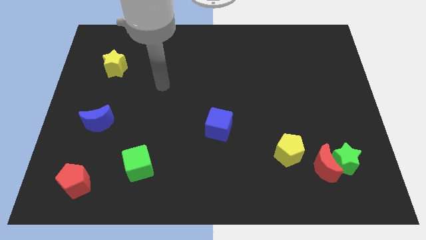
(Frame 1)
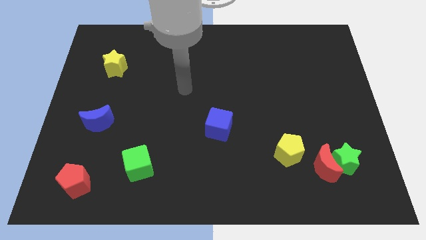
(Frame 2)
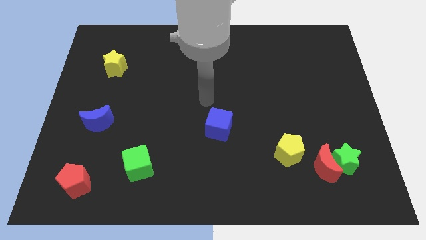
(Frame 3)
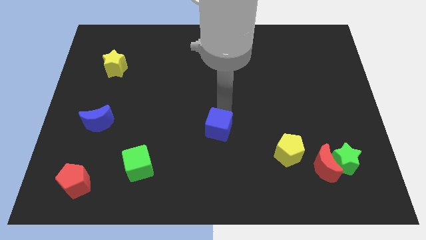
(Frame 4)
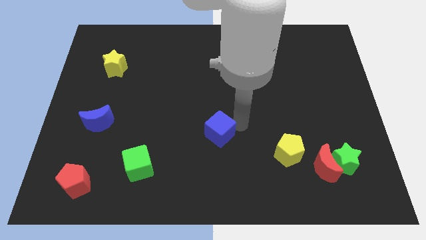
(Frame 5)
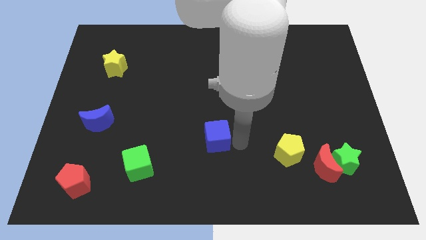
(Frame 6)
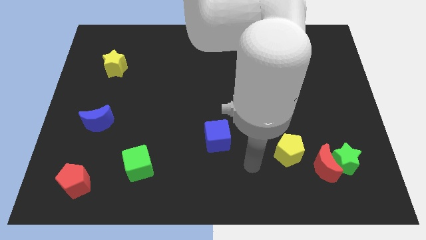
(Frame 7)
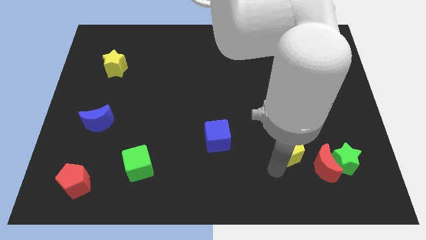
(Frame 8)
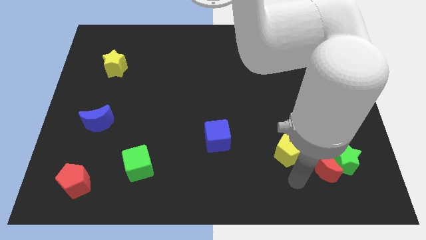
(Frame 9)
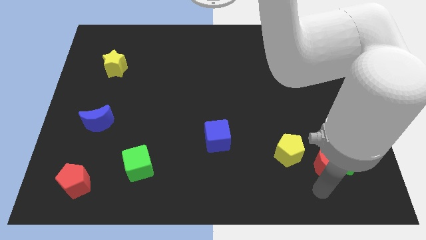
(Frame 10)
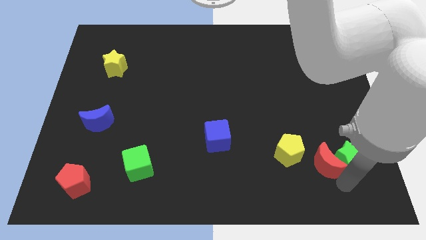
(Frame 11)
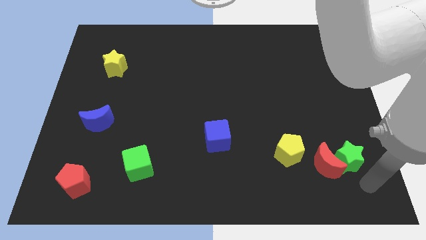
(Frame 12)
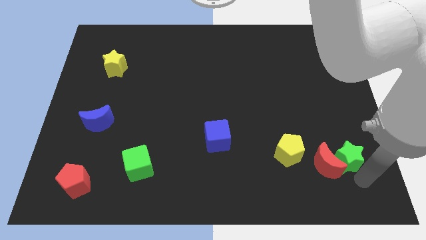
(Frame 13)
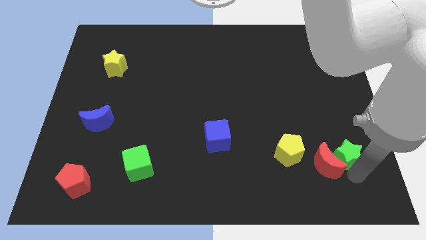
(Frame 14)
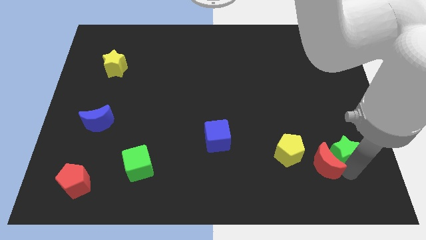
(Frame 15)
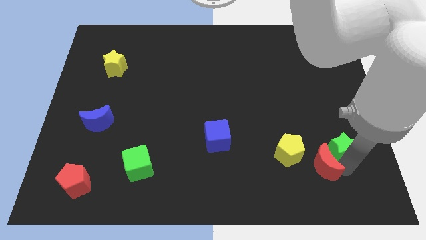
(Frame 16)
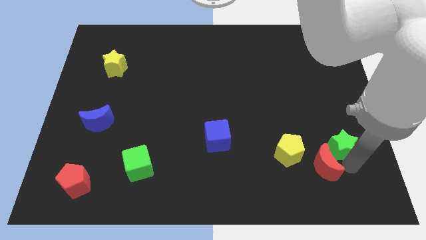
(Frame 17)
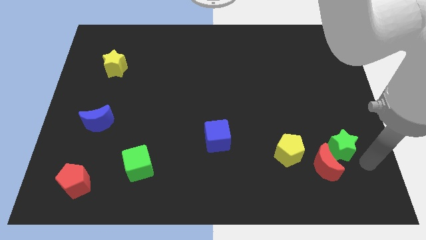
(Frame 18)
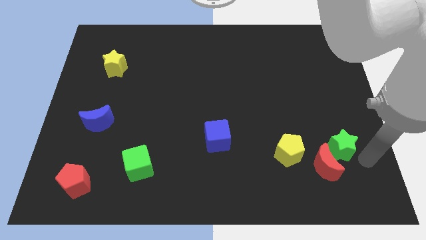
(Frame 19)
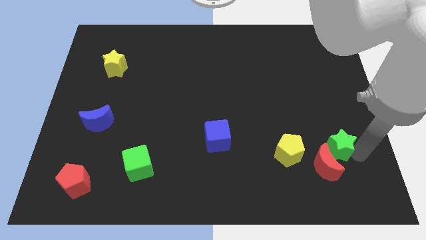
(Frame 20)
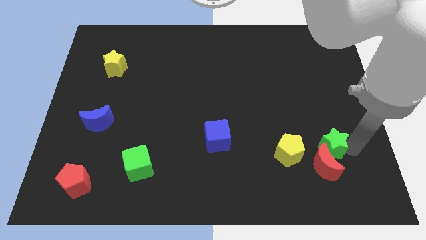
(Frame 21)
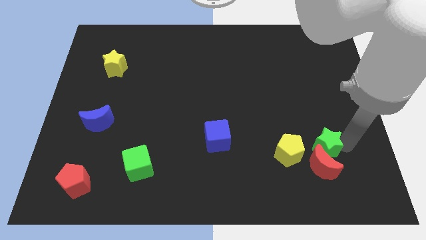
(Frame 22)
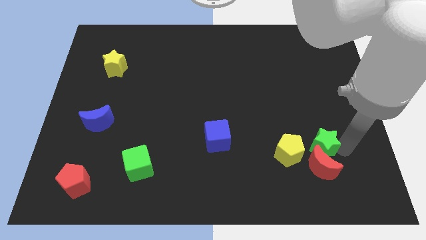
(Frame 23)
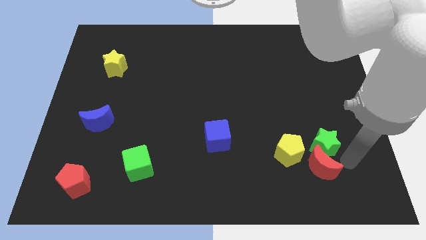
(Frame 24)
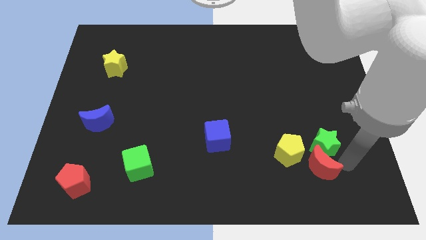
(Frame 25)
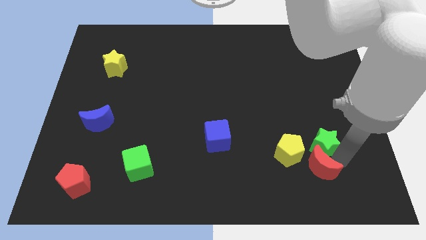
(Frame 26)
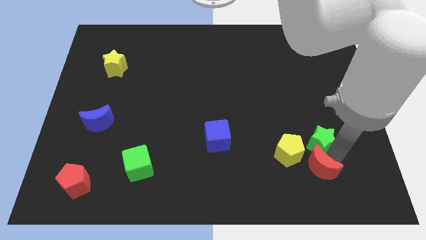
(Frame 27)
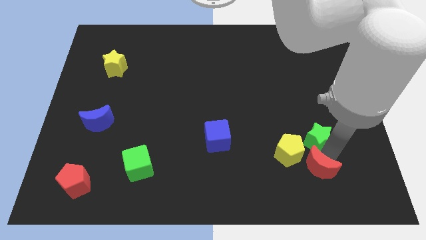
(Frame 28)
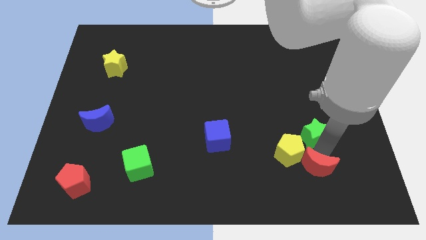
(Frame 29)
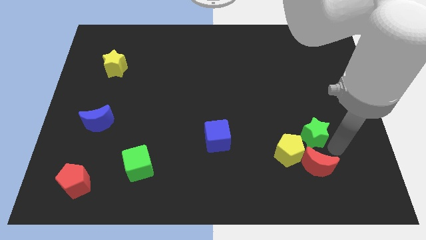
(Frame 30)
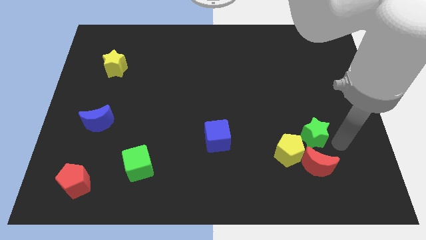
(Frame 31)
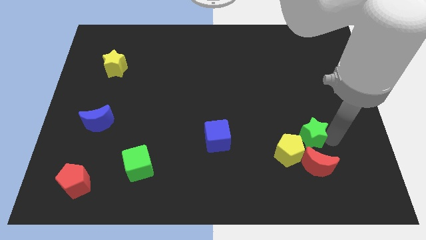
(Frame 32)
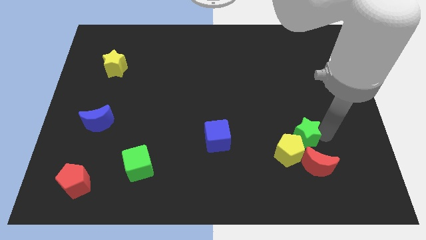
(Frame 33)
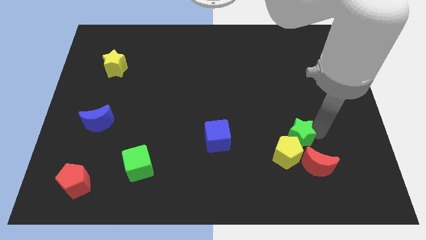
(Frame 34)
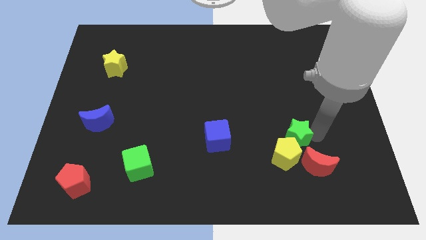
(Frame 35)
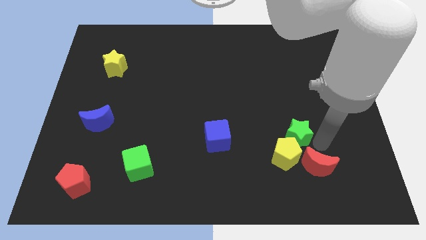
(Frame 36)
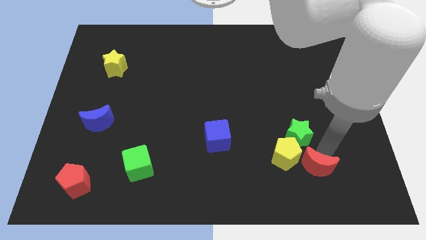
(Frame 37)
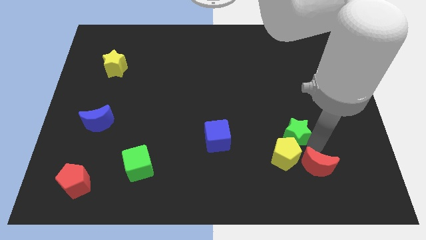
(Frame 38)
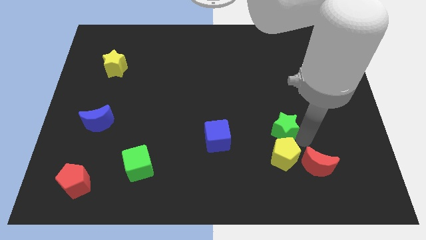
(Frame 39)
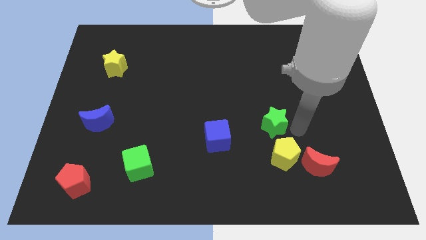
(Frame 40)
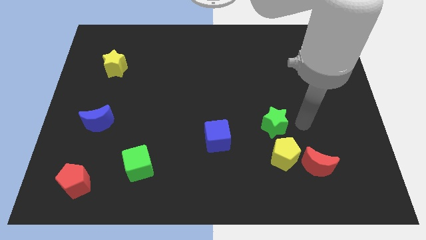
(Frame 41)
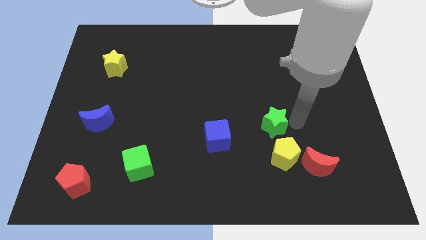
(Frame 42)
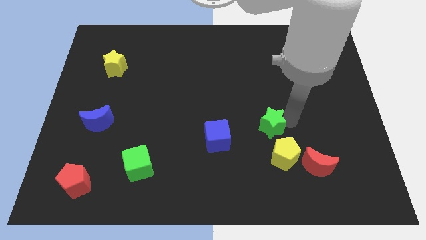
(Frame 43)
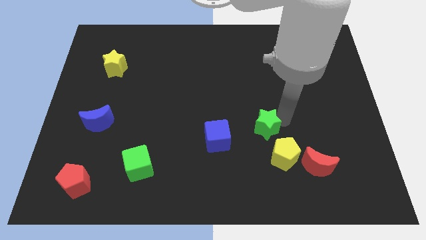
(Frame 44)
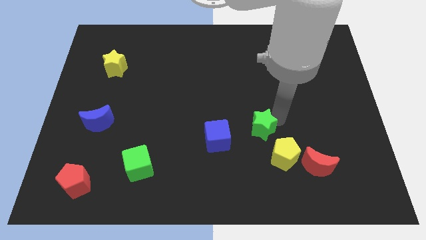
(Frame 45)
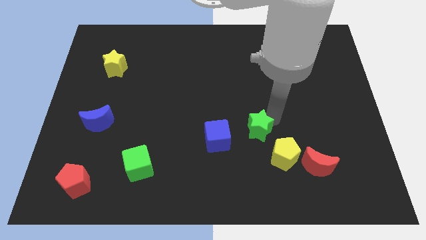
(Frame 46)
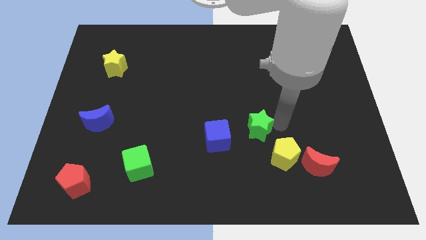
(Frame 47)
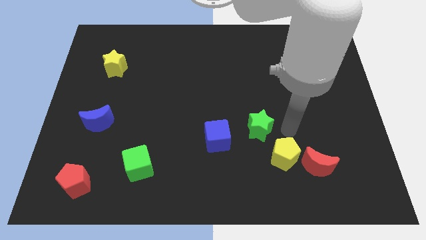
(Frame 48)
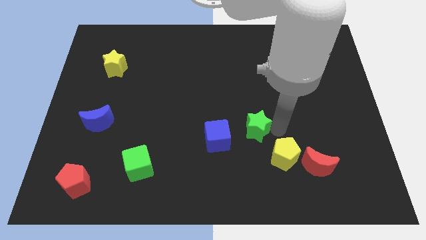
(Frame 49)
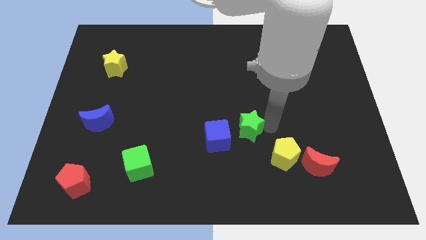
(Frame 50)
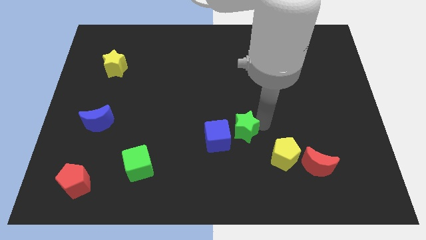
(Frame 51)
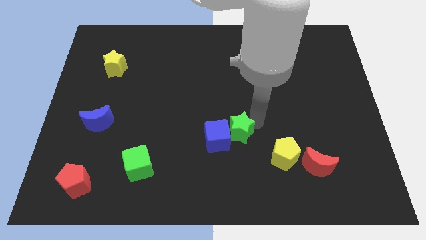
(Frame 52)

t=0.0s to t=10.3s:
put the green star close to the blue cube

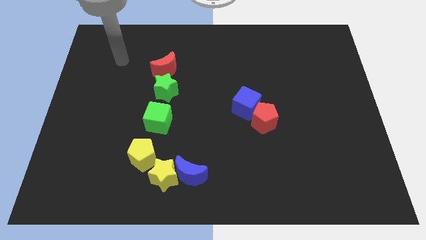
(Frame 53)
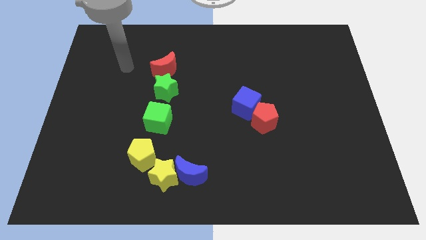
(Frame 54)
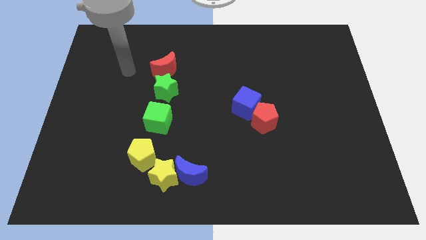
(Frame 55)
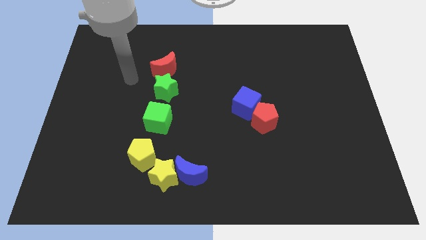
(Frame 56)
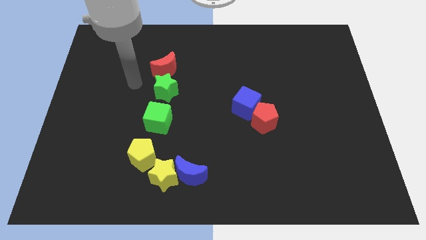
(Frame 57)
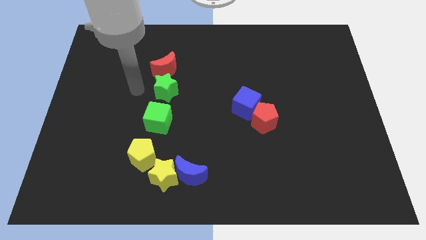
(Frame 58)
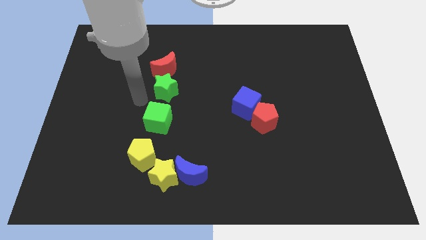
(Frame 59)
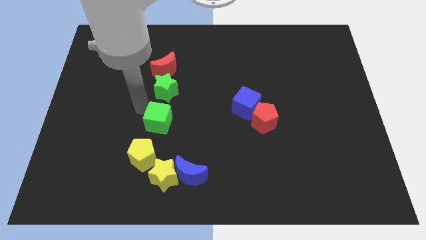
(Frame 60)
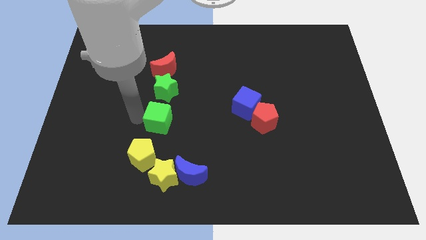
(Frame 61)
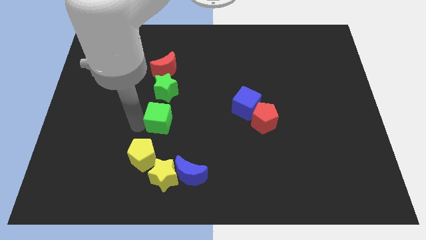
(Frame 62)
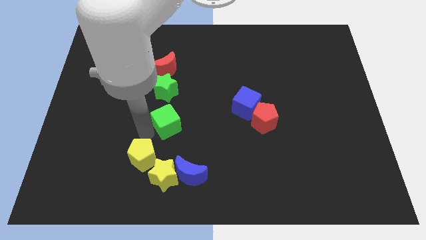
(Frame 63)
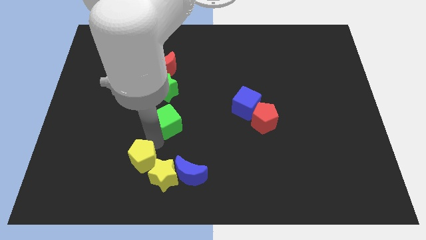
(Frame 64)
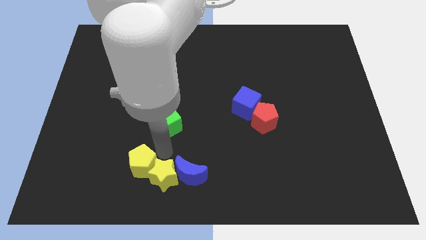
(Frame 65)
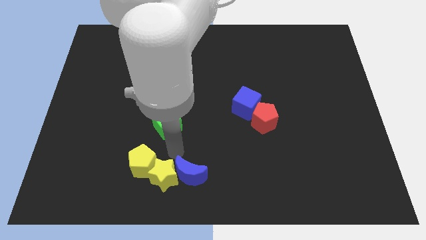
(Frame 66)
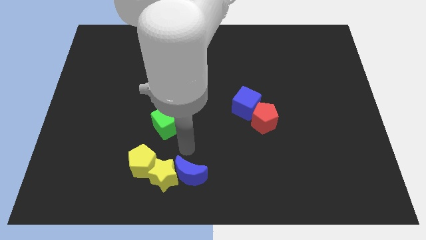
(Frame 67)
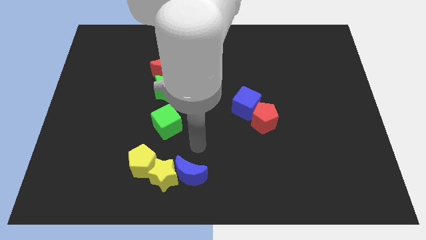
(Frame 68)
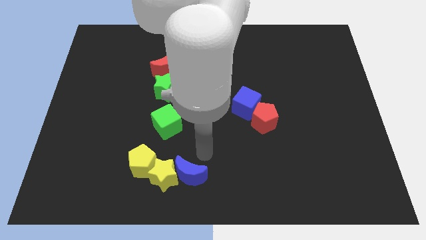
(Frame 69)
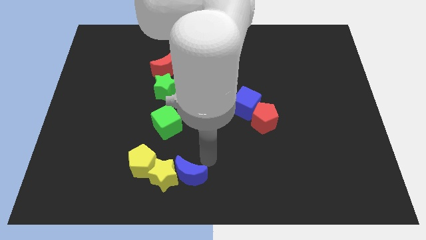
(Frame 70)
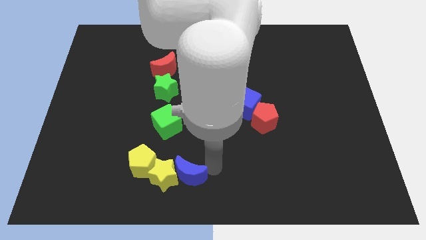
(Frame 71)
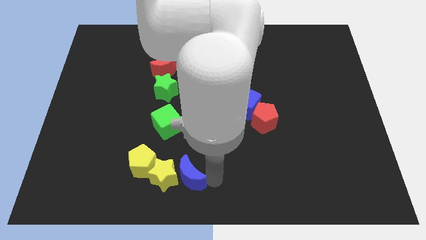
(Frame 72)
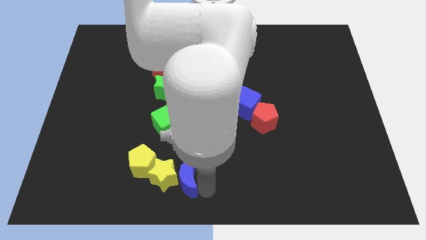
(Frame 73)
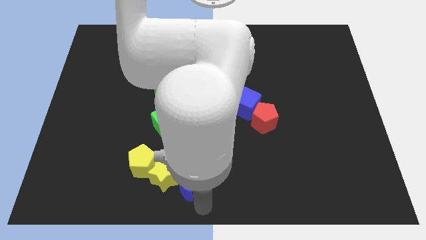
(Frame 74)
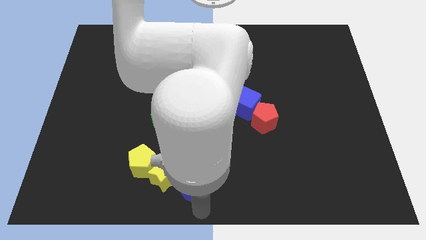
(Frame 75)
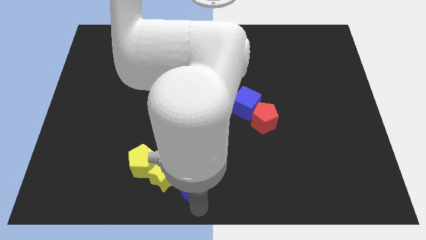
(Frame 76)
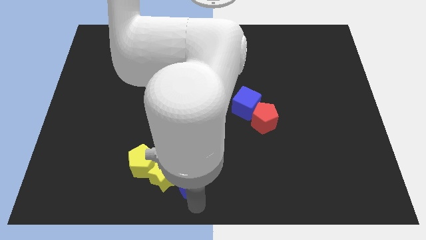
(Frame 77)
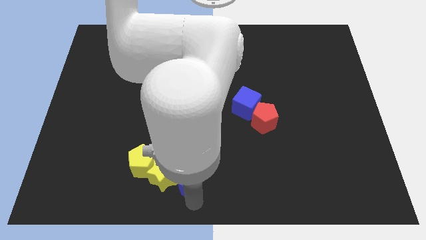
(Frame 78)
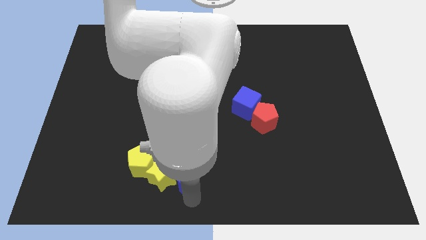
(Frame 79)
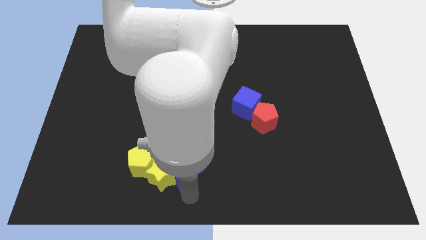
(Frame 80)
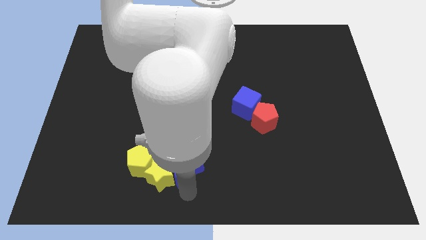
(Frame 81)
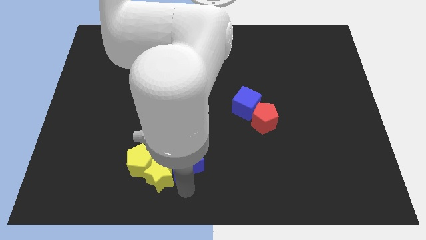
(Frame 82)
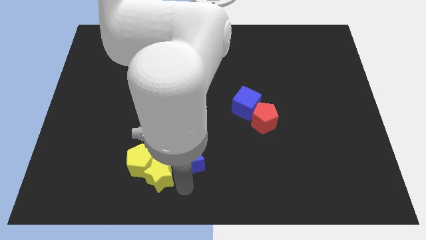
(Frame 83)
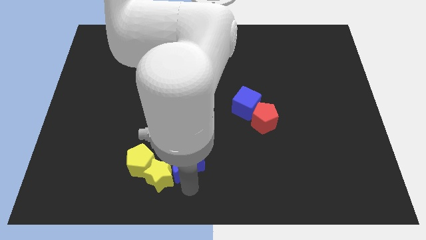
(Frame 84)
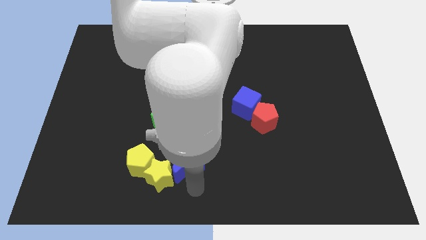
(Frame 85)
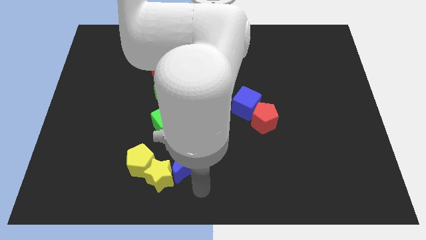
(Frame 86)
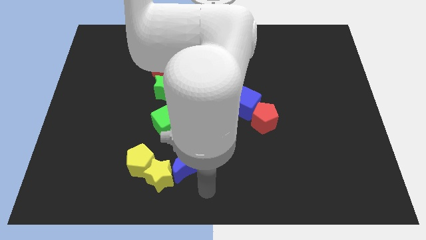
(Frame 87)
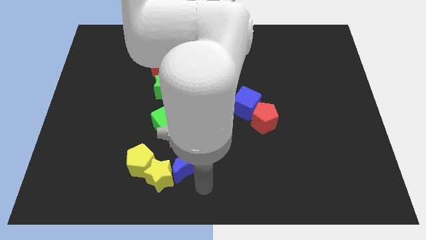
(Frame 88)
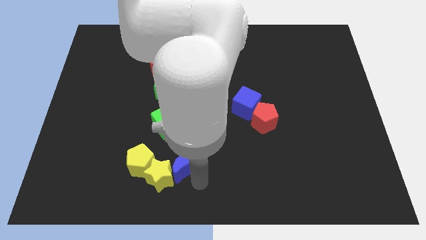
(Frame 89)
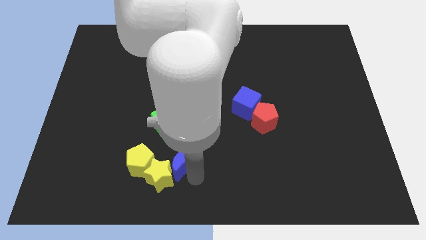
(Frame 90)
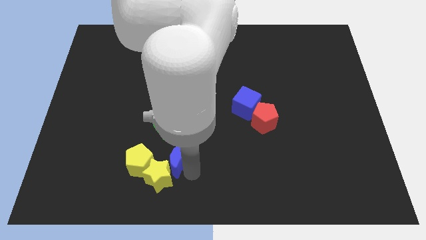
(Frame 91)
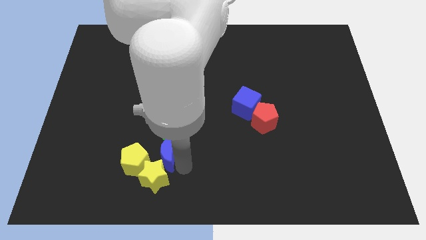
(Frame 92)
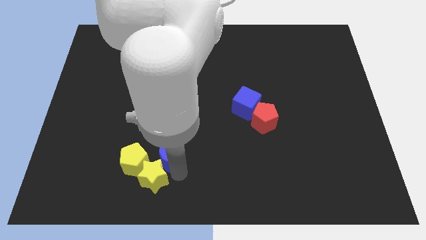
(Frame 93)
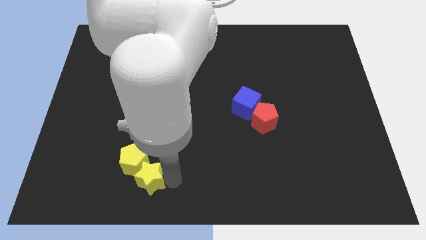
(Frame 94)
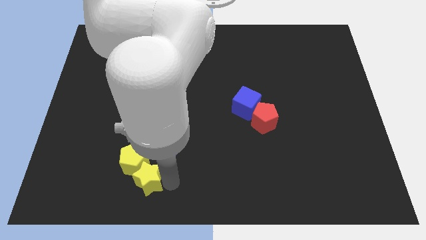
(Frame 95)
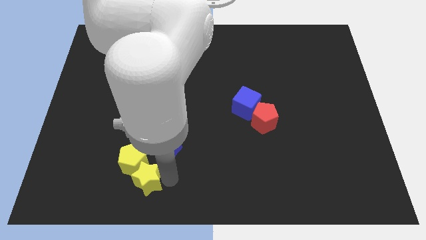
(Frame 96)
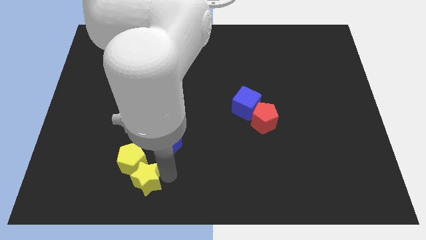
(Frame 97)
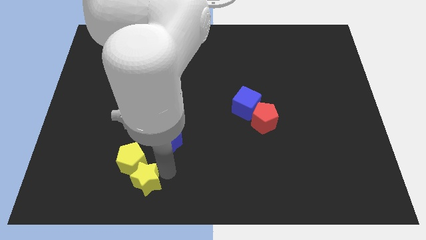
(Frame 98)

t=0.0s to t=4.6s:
move the blue moon next to the green cube
